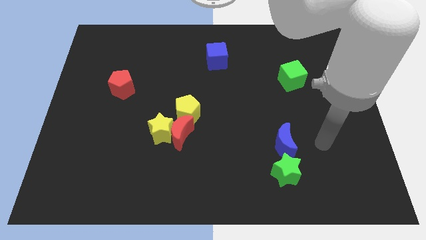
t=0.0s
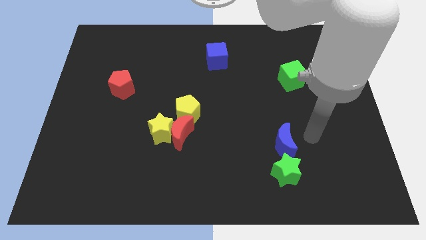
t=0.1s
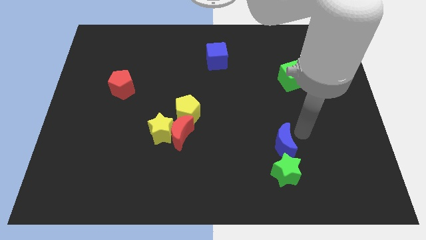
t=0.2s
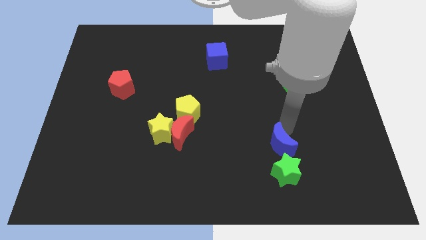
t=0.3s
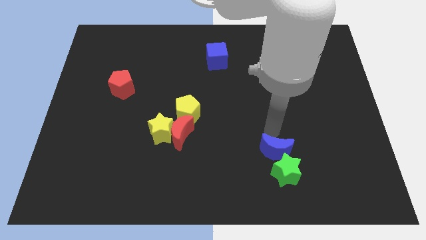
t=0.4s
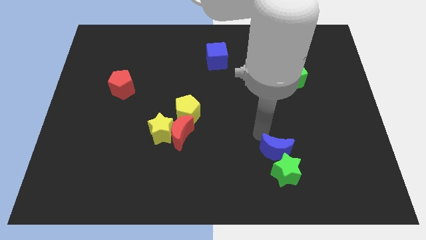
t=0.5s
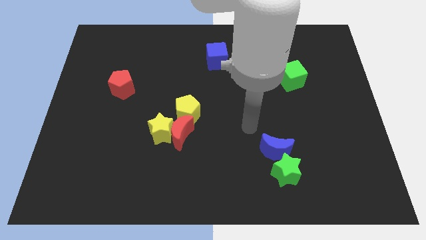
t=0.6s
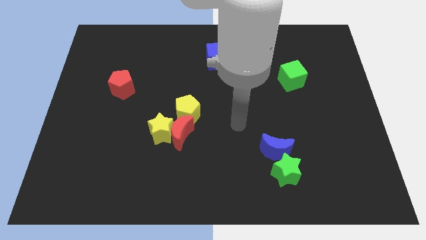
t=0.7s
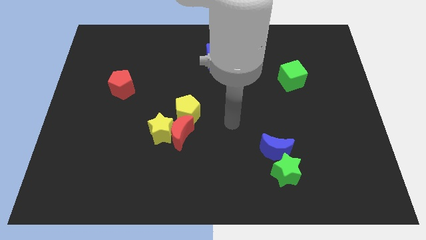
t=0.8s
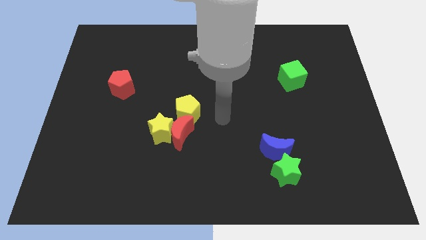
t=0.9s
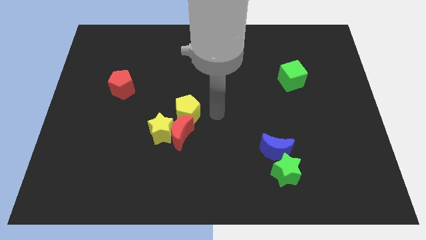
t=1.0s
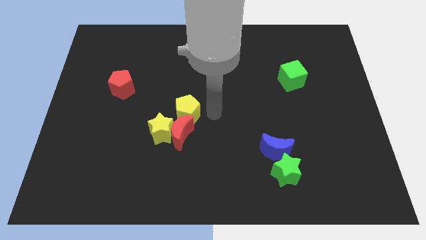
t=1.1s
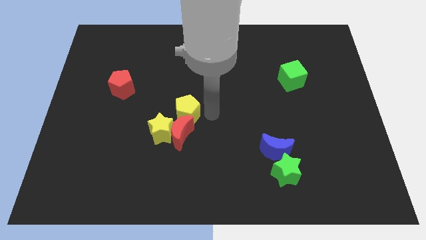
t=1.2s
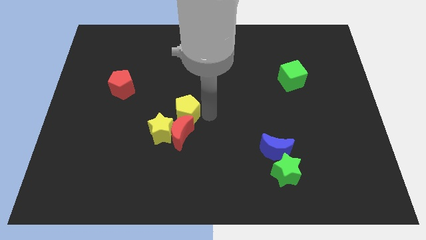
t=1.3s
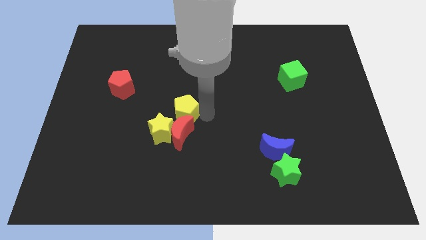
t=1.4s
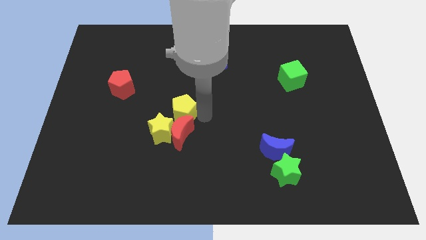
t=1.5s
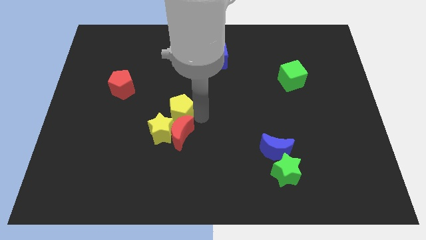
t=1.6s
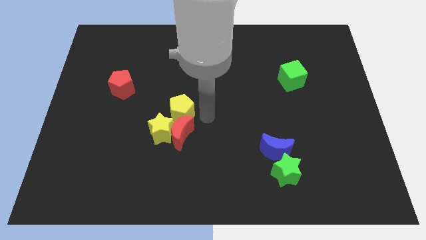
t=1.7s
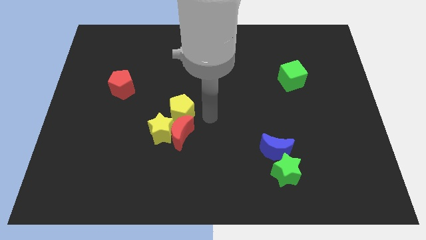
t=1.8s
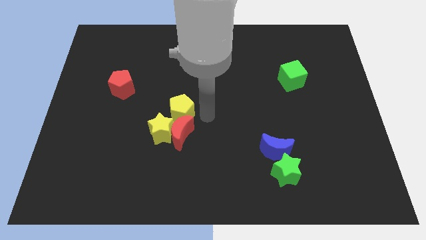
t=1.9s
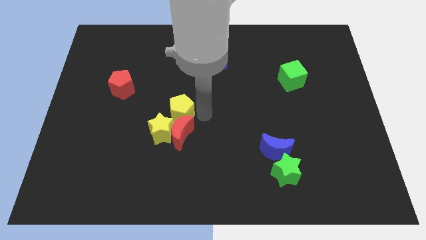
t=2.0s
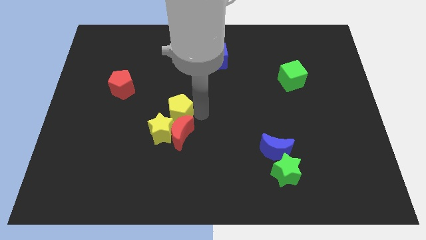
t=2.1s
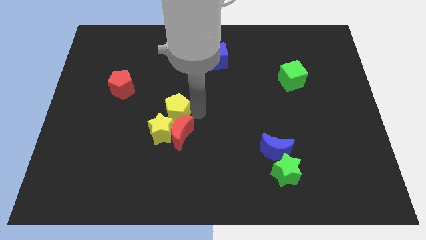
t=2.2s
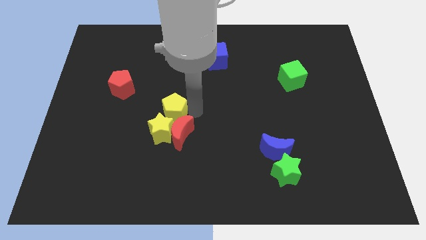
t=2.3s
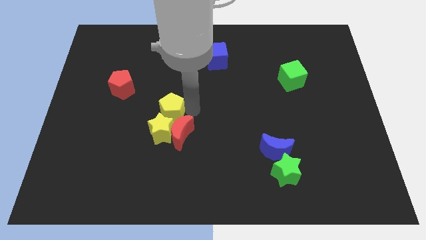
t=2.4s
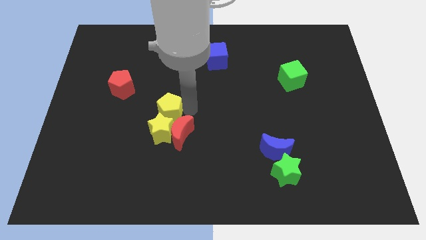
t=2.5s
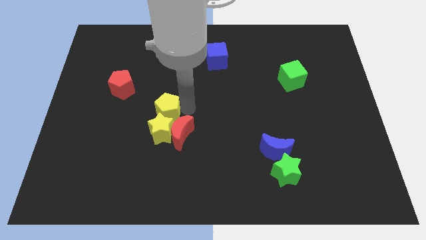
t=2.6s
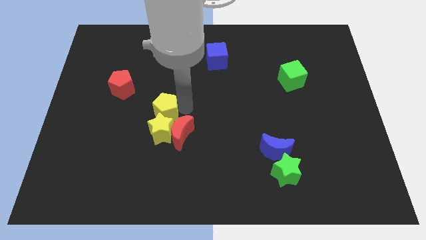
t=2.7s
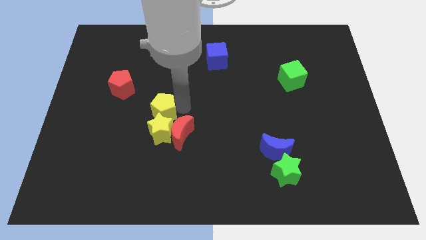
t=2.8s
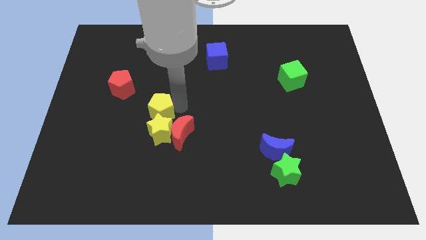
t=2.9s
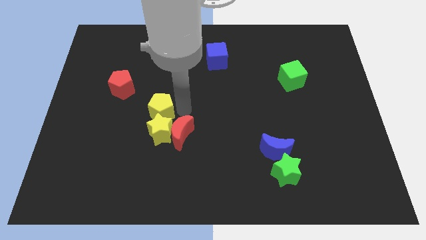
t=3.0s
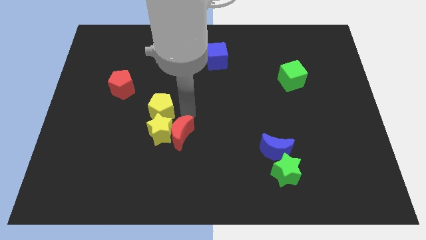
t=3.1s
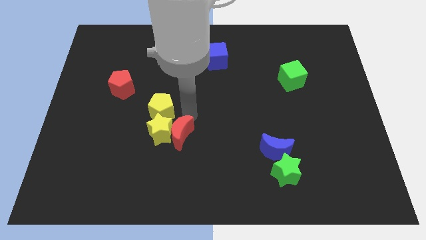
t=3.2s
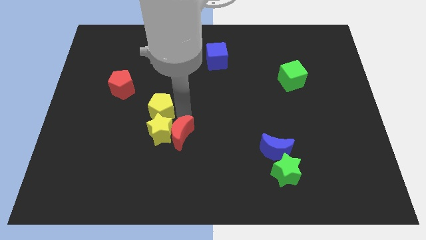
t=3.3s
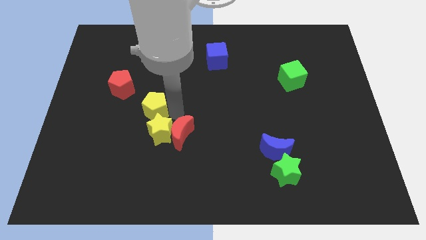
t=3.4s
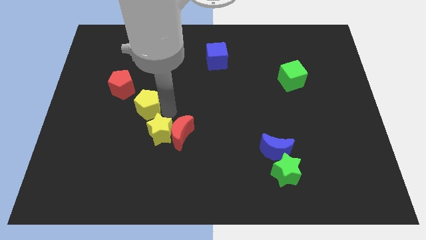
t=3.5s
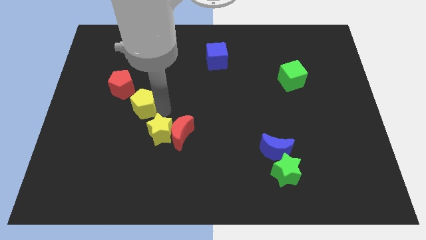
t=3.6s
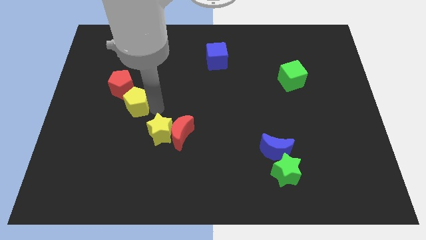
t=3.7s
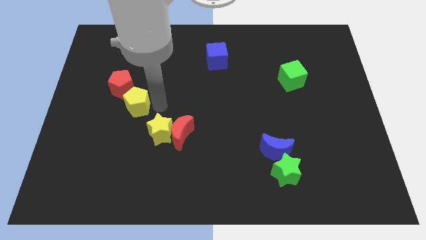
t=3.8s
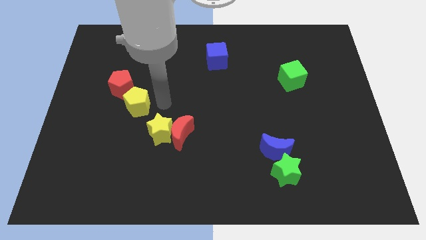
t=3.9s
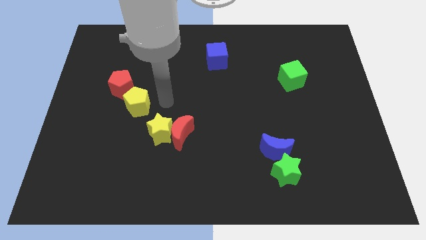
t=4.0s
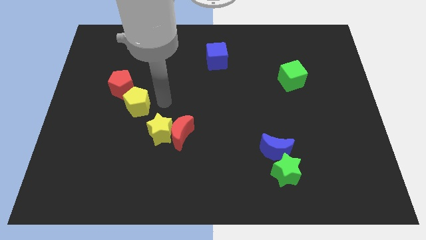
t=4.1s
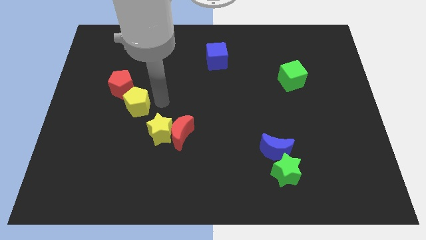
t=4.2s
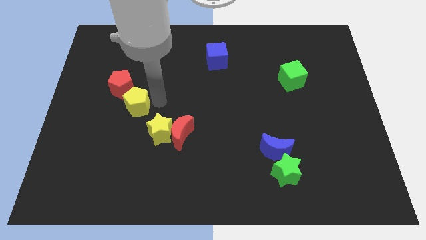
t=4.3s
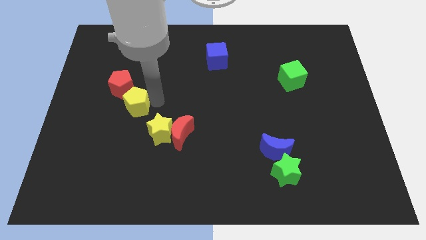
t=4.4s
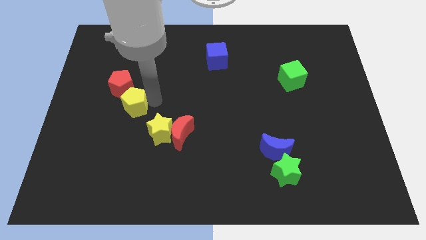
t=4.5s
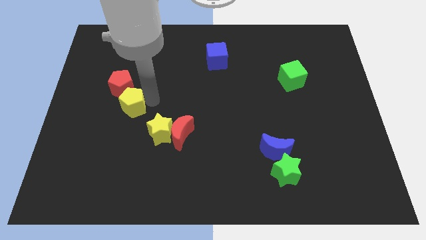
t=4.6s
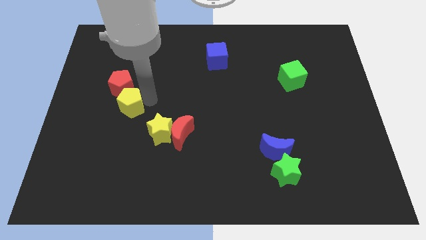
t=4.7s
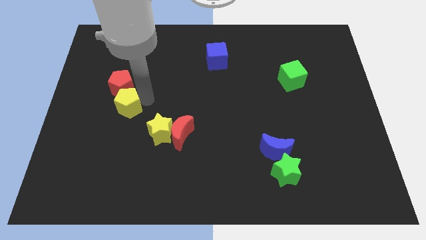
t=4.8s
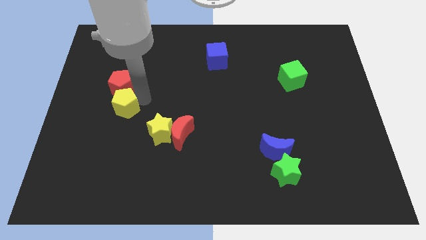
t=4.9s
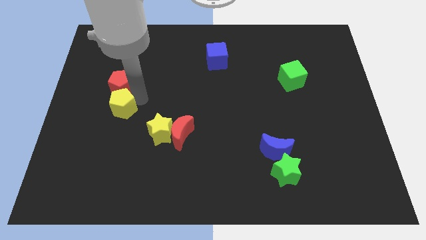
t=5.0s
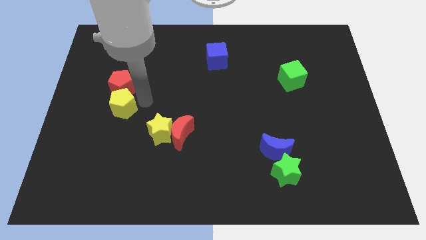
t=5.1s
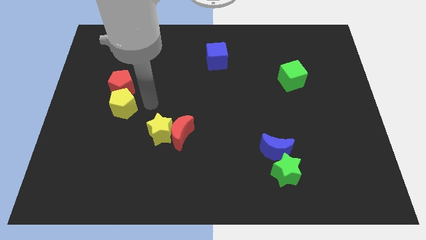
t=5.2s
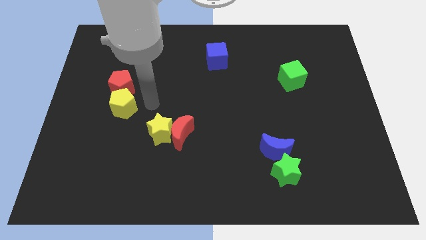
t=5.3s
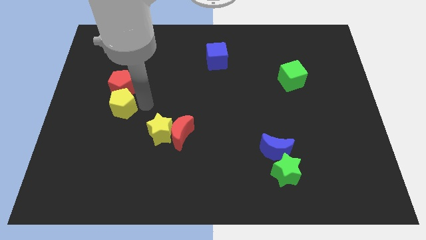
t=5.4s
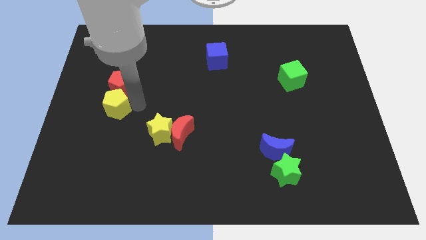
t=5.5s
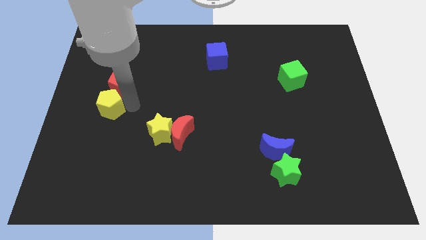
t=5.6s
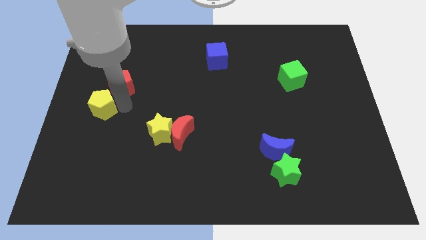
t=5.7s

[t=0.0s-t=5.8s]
slide the yellow pentagon to the left side
